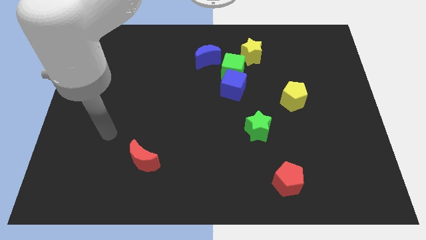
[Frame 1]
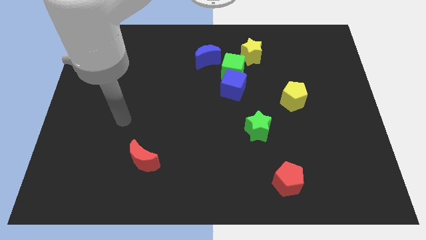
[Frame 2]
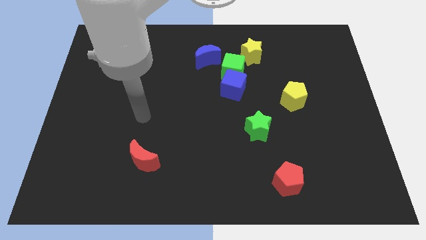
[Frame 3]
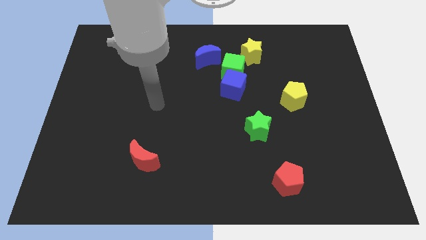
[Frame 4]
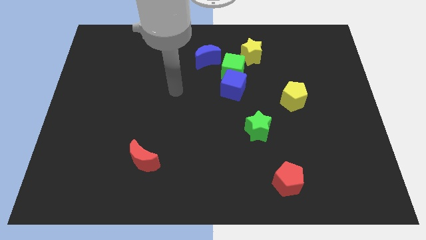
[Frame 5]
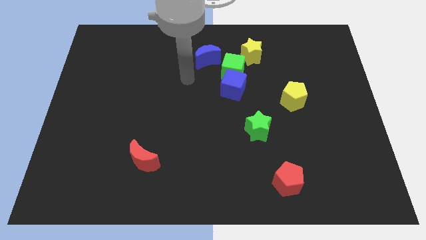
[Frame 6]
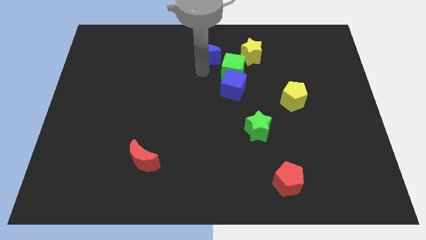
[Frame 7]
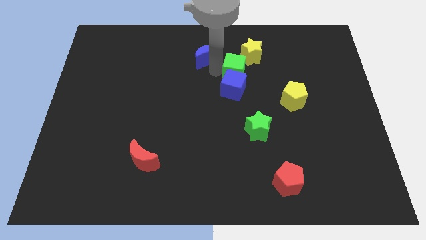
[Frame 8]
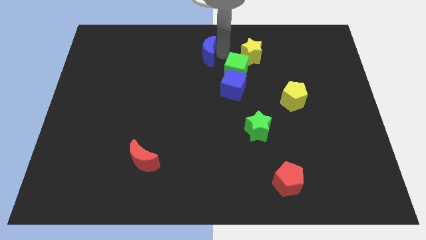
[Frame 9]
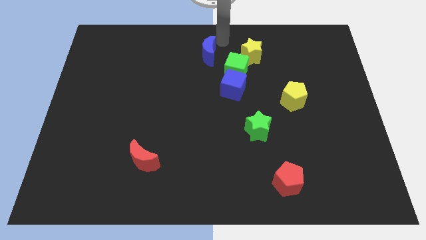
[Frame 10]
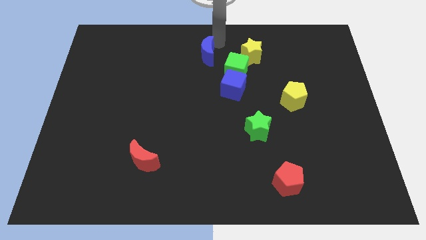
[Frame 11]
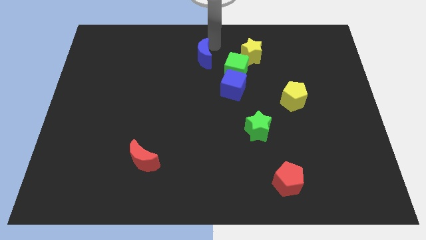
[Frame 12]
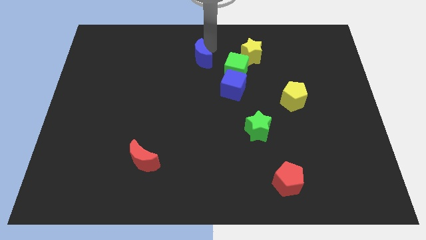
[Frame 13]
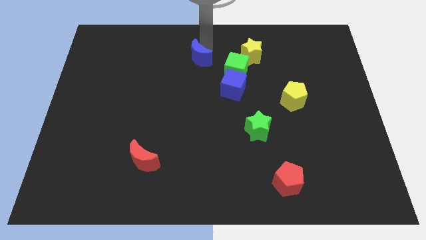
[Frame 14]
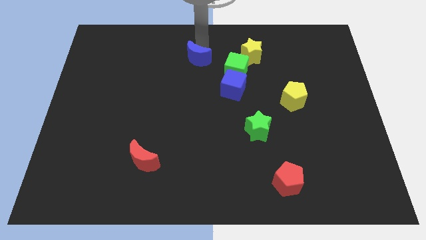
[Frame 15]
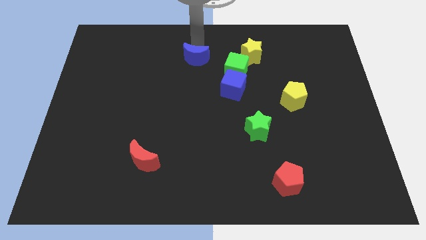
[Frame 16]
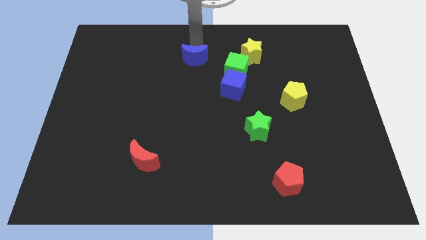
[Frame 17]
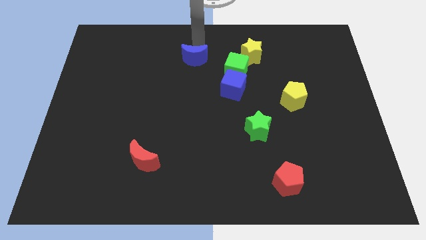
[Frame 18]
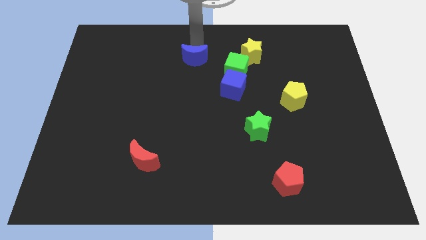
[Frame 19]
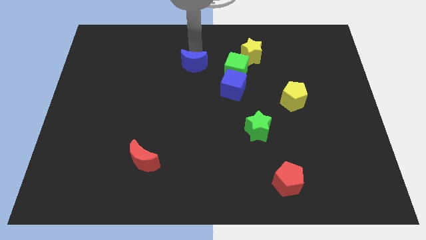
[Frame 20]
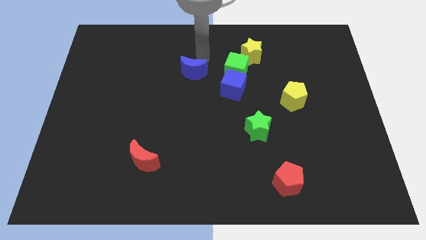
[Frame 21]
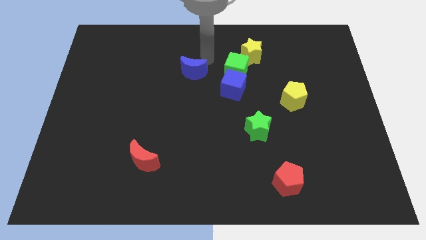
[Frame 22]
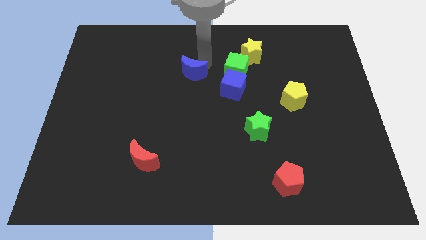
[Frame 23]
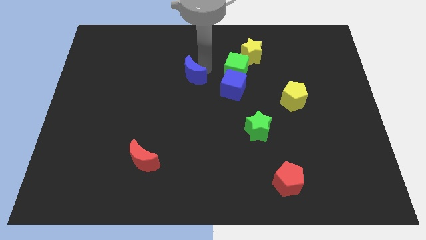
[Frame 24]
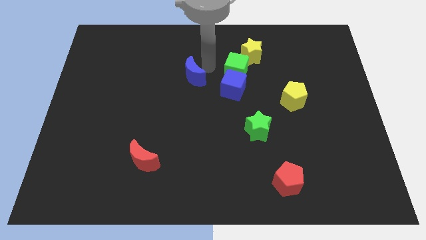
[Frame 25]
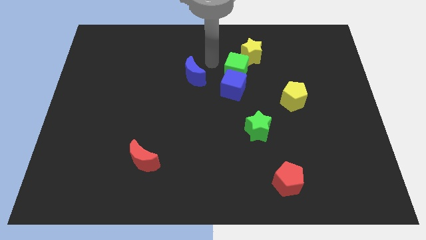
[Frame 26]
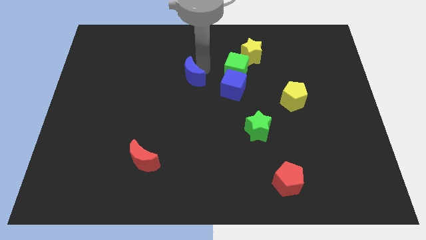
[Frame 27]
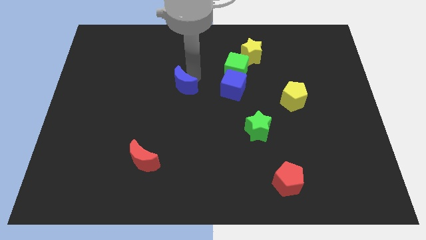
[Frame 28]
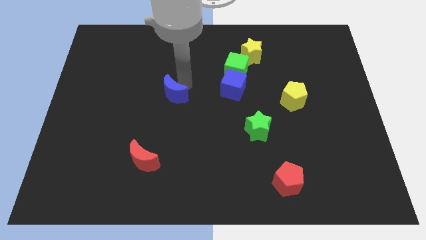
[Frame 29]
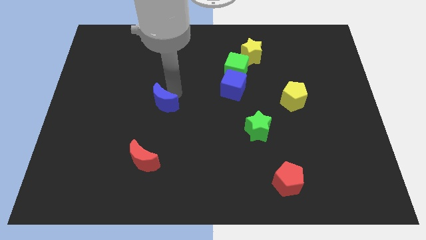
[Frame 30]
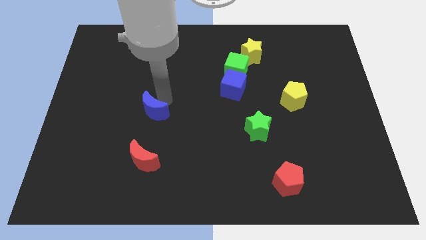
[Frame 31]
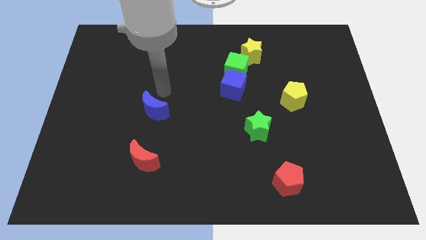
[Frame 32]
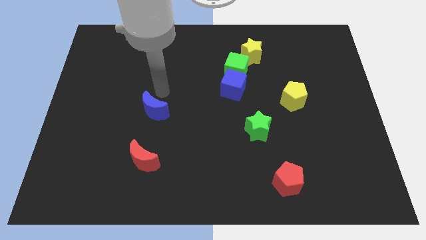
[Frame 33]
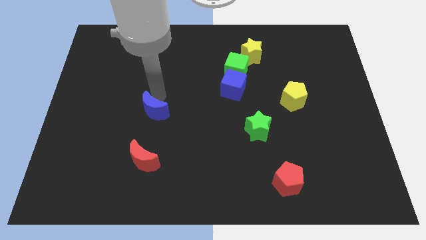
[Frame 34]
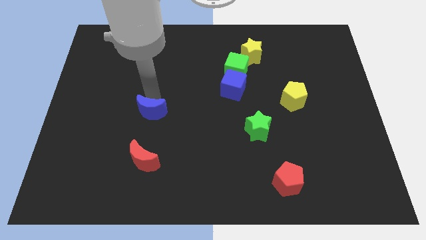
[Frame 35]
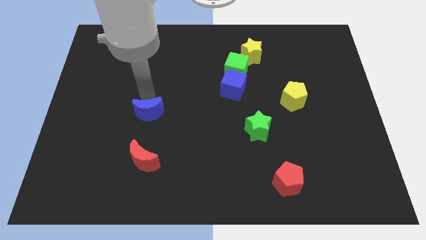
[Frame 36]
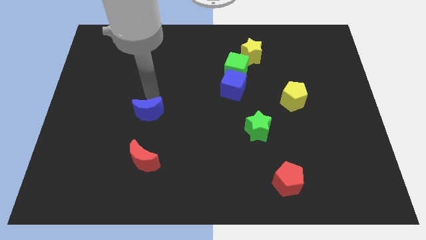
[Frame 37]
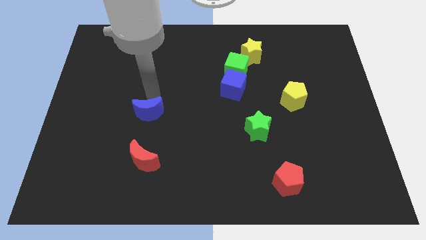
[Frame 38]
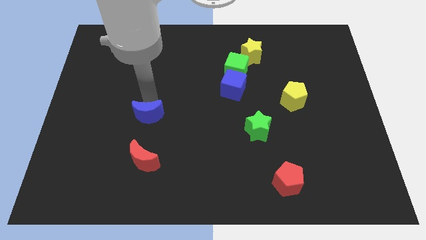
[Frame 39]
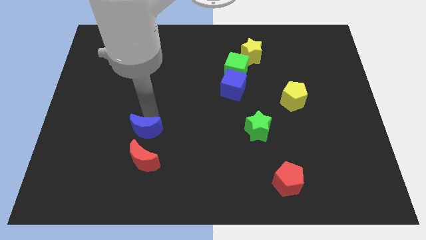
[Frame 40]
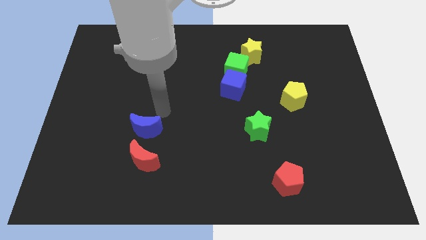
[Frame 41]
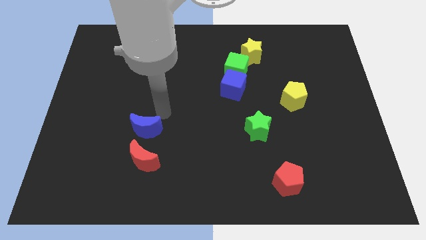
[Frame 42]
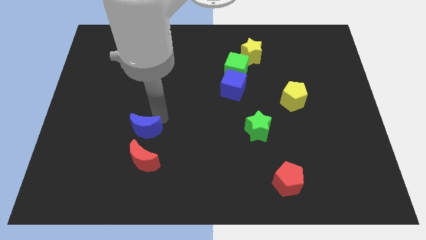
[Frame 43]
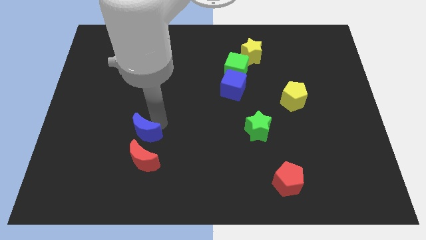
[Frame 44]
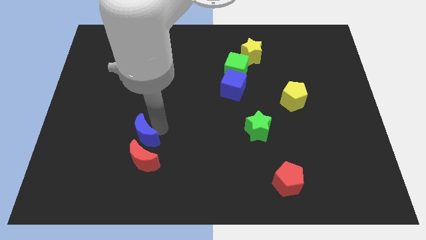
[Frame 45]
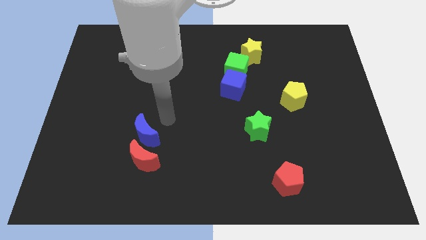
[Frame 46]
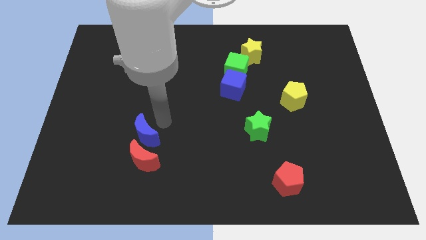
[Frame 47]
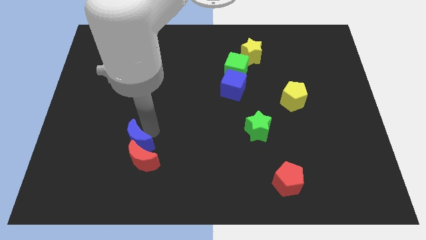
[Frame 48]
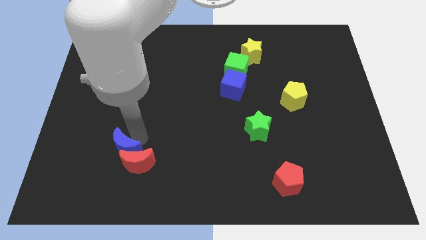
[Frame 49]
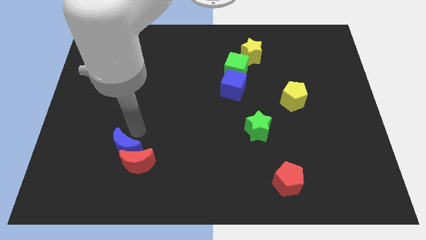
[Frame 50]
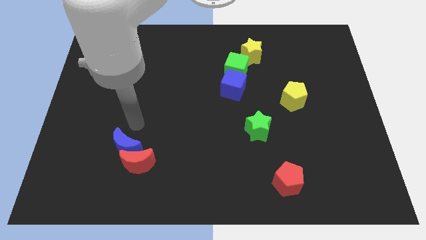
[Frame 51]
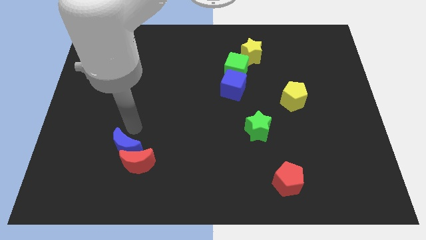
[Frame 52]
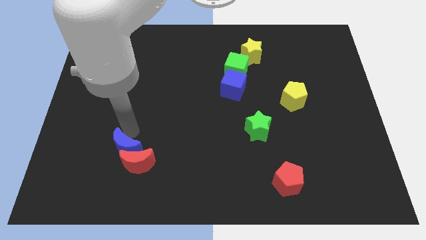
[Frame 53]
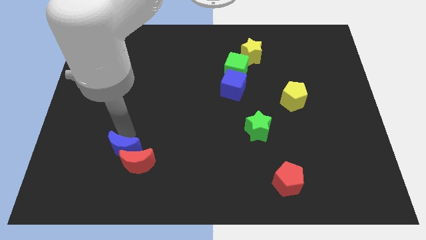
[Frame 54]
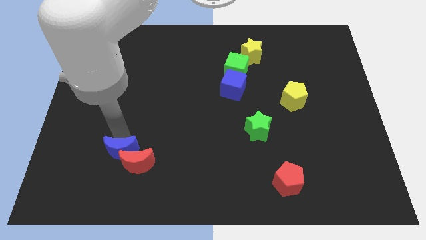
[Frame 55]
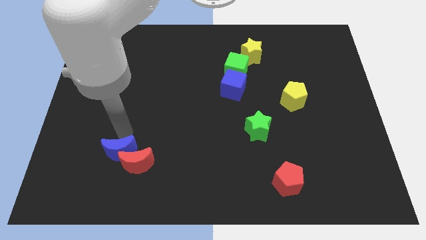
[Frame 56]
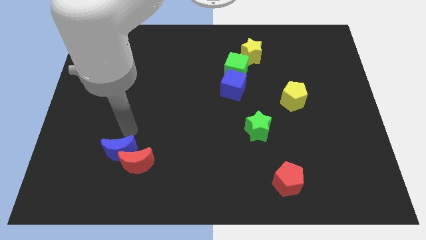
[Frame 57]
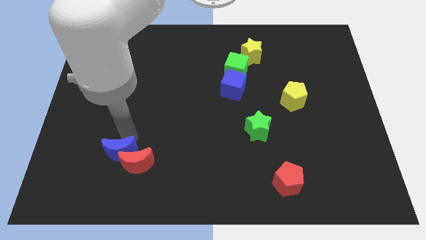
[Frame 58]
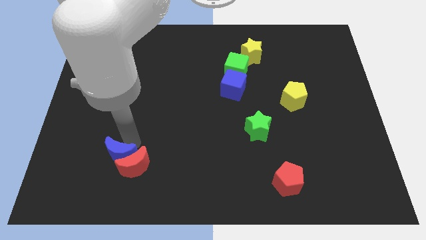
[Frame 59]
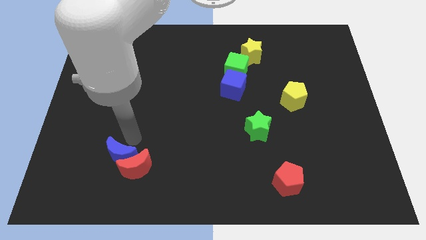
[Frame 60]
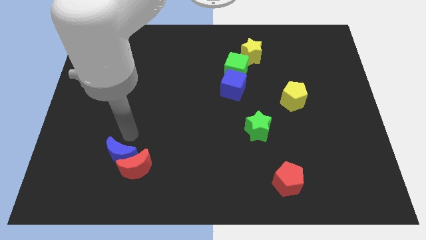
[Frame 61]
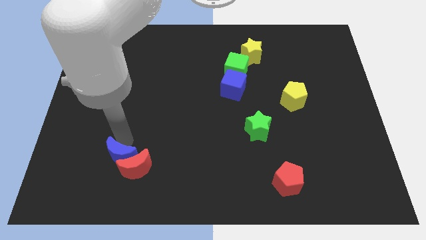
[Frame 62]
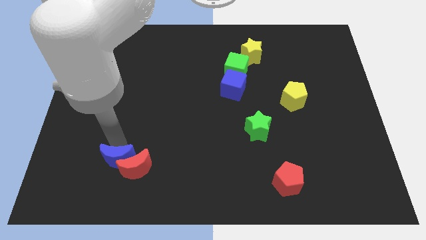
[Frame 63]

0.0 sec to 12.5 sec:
push the blue moon to the bottom left of the red moon

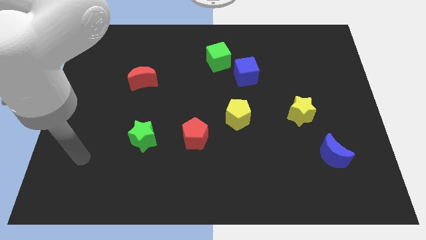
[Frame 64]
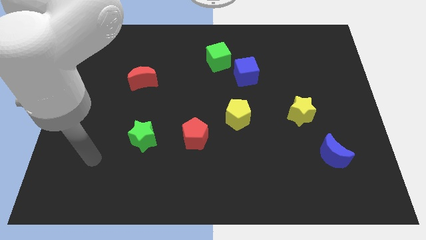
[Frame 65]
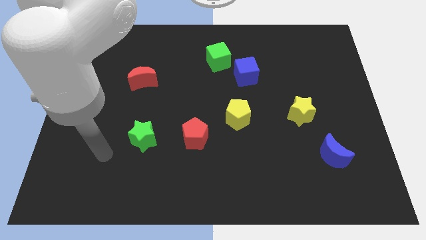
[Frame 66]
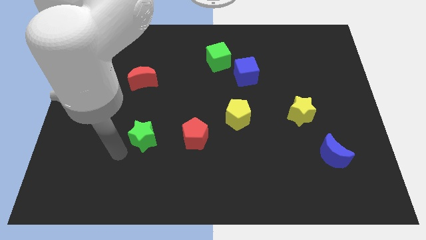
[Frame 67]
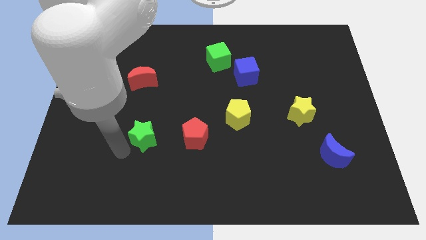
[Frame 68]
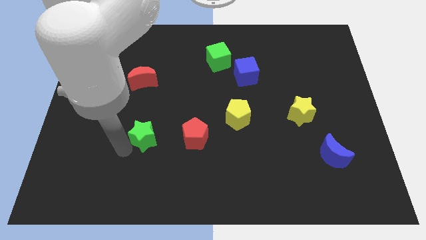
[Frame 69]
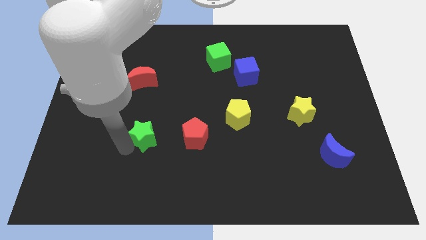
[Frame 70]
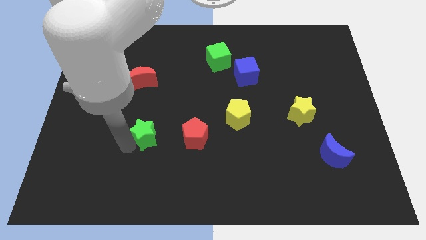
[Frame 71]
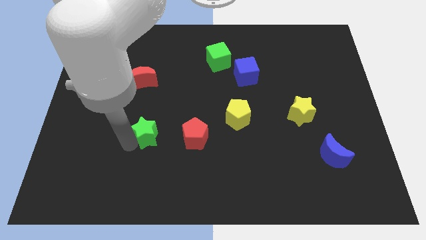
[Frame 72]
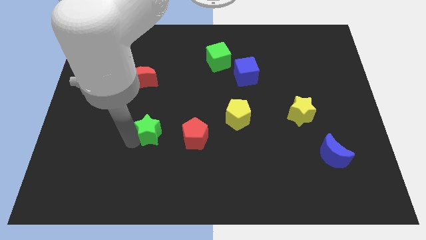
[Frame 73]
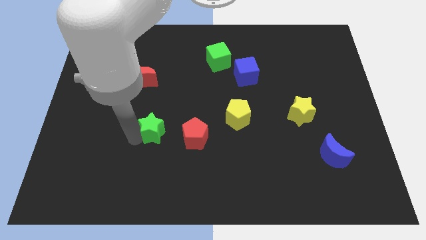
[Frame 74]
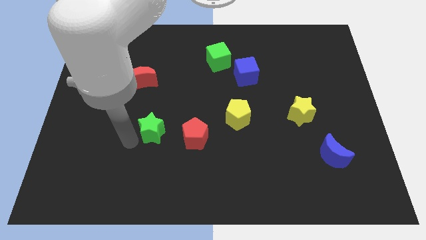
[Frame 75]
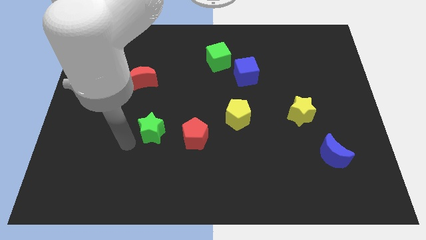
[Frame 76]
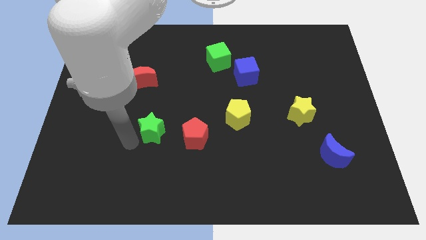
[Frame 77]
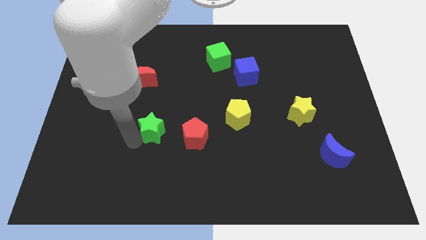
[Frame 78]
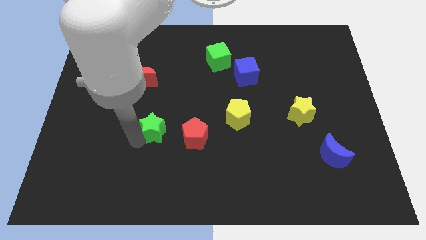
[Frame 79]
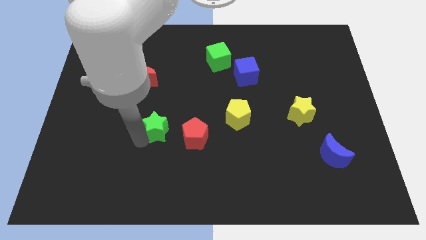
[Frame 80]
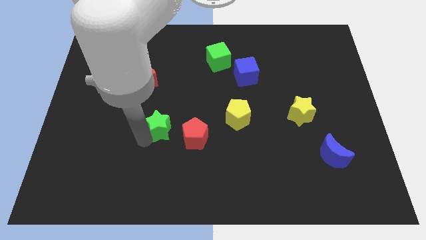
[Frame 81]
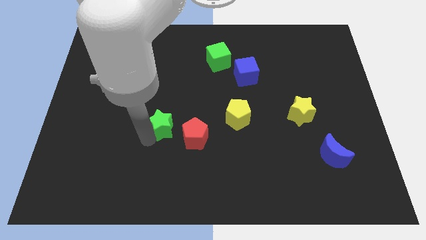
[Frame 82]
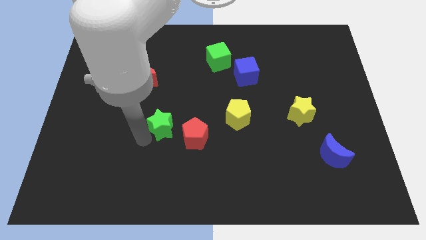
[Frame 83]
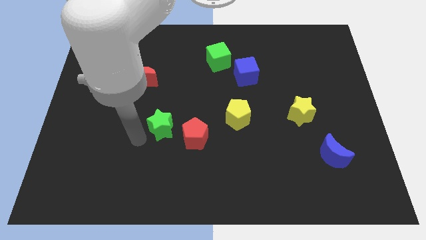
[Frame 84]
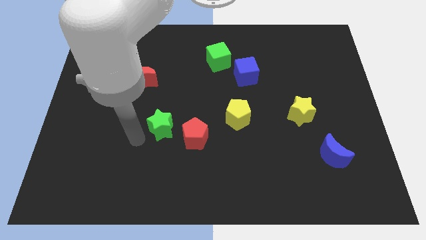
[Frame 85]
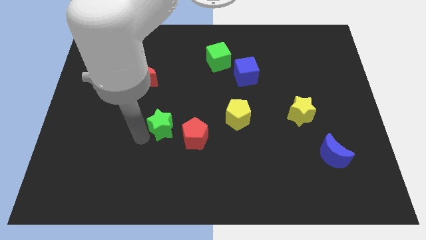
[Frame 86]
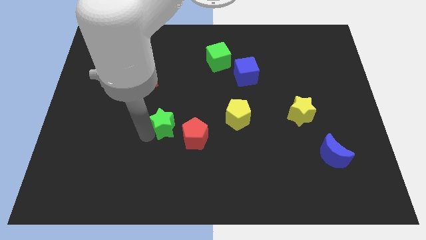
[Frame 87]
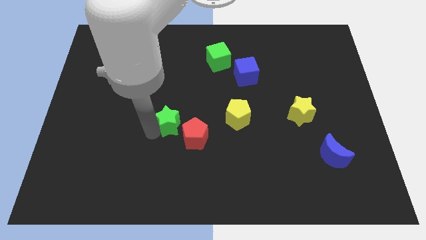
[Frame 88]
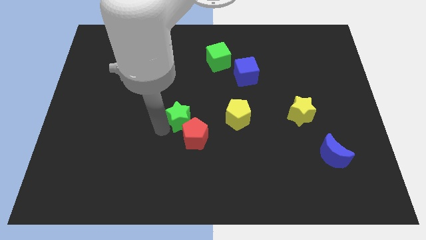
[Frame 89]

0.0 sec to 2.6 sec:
put the green star to the top of the red pentagon
